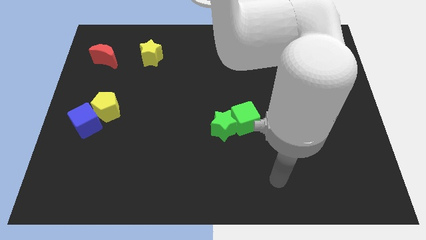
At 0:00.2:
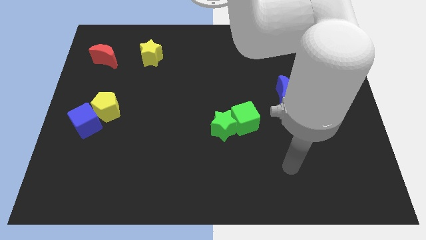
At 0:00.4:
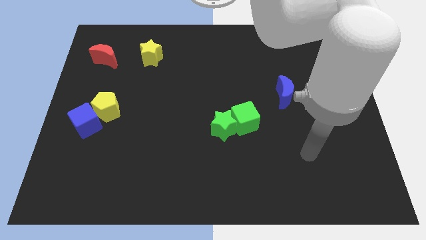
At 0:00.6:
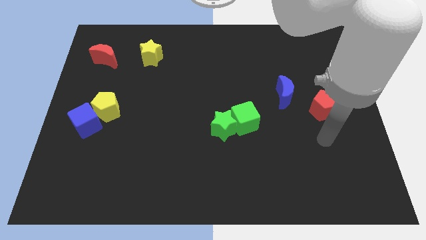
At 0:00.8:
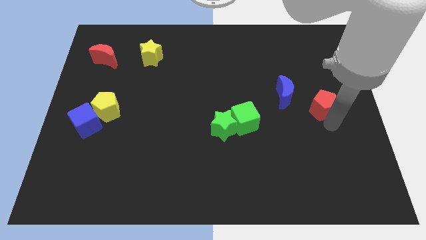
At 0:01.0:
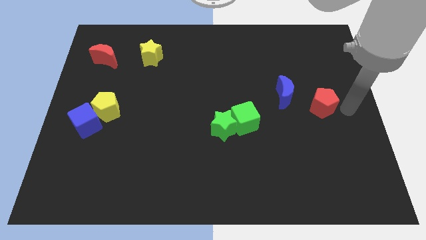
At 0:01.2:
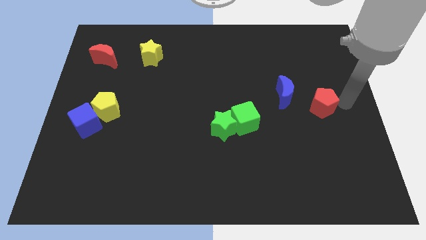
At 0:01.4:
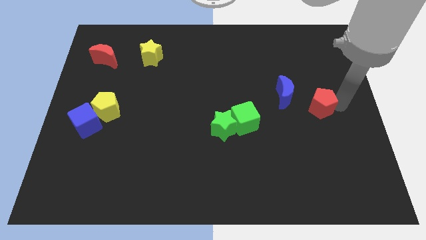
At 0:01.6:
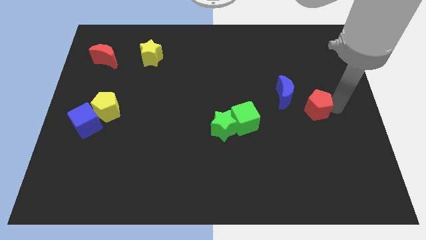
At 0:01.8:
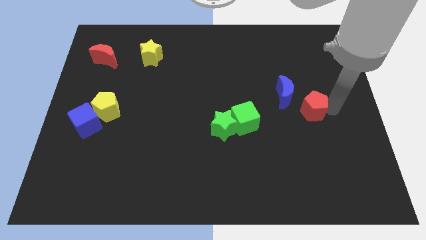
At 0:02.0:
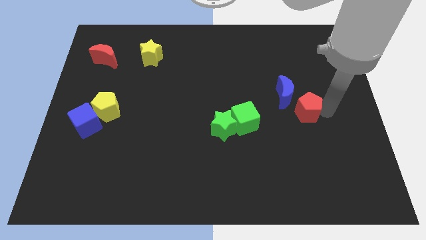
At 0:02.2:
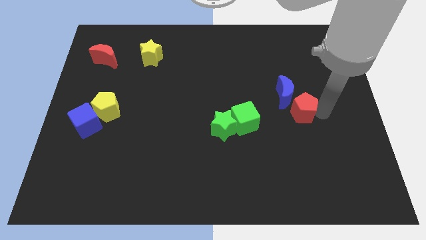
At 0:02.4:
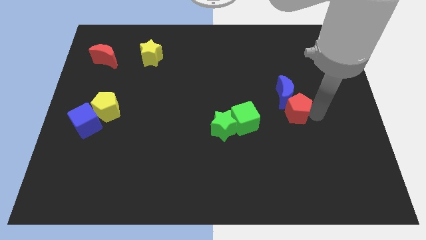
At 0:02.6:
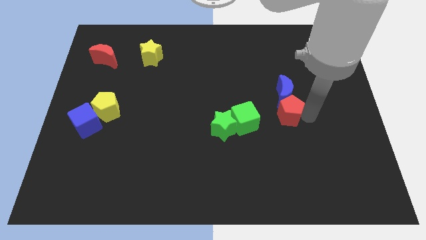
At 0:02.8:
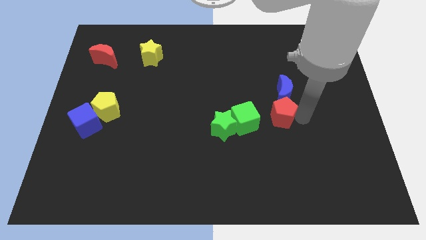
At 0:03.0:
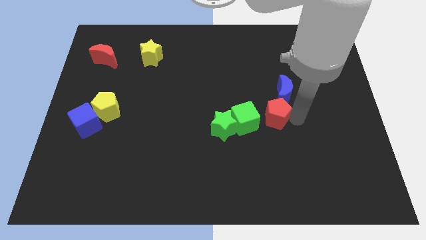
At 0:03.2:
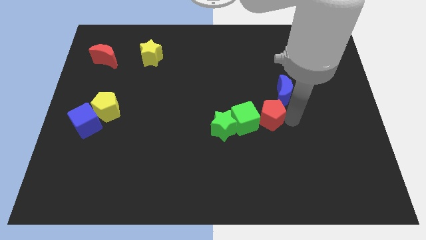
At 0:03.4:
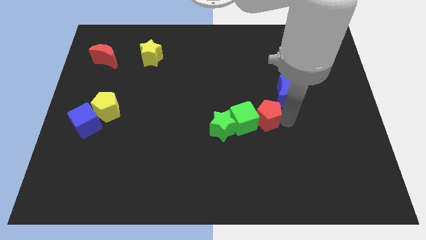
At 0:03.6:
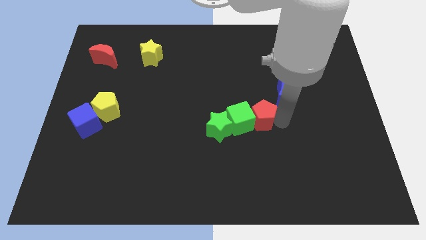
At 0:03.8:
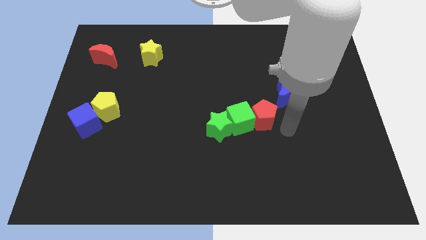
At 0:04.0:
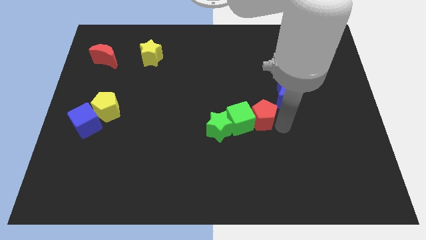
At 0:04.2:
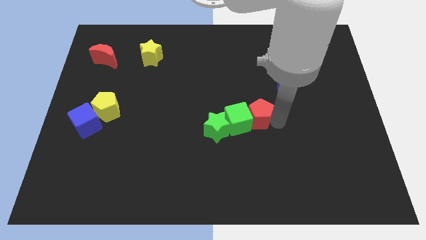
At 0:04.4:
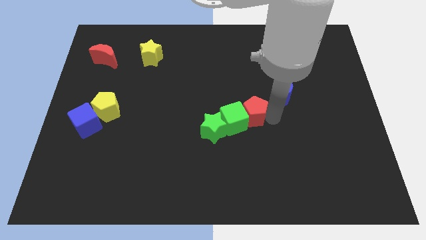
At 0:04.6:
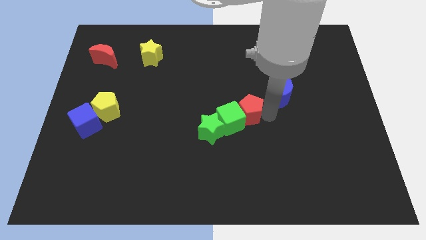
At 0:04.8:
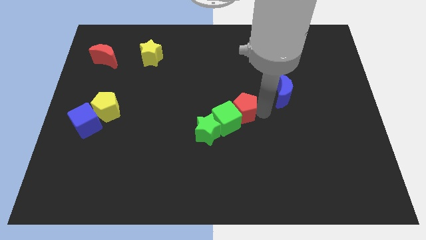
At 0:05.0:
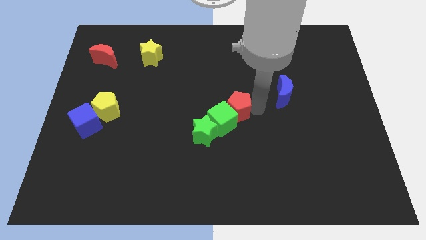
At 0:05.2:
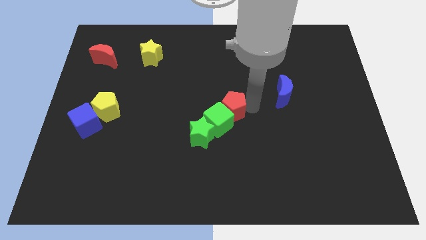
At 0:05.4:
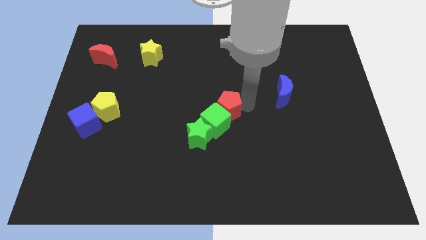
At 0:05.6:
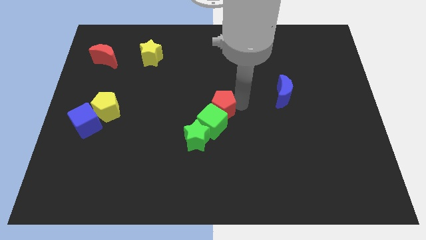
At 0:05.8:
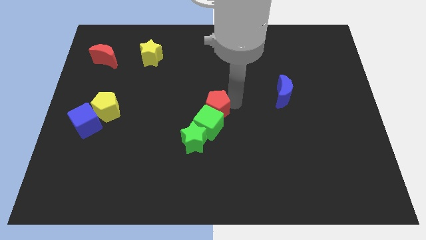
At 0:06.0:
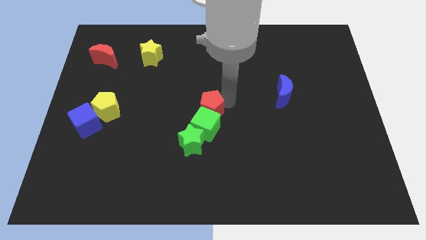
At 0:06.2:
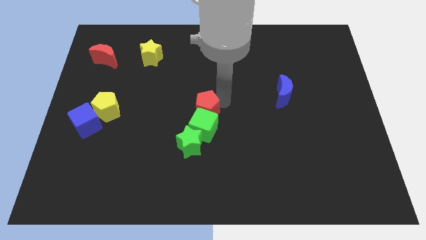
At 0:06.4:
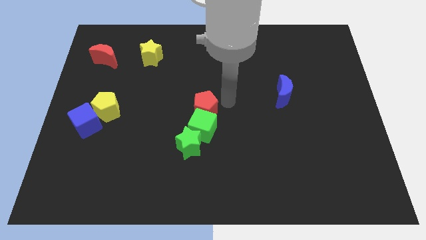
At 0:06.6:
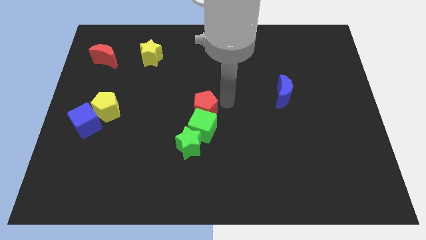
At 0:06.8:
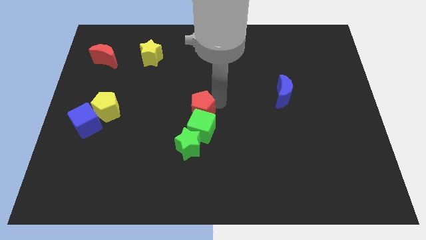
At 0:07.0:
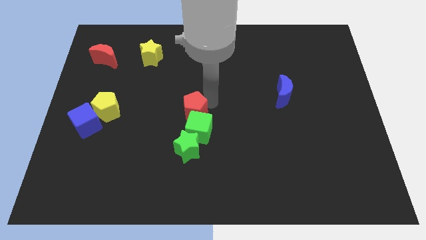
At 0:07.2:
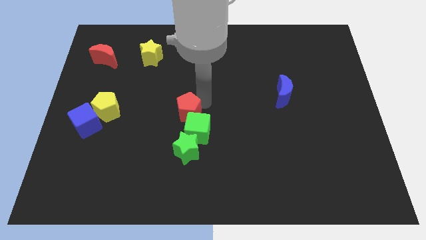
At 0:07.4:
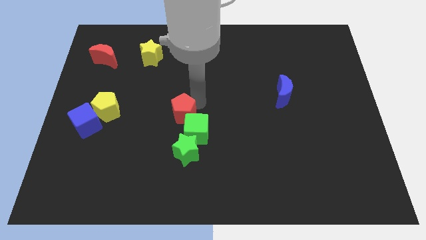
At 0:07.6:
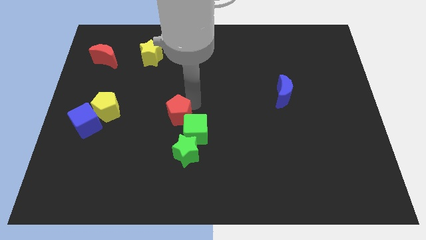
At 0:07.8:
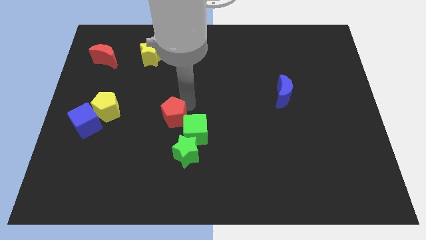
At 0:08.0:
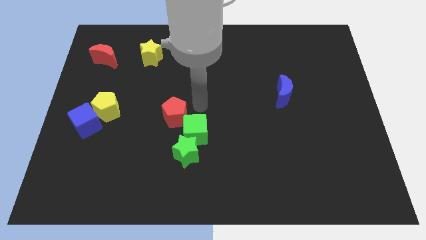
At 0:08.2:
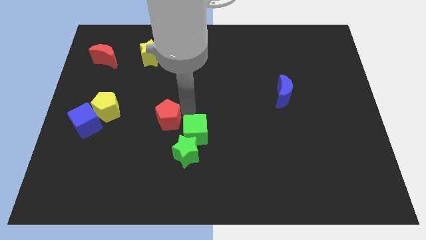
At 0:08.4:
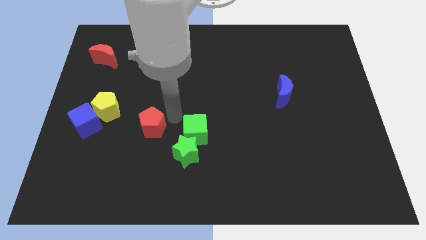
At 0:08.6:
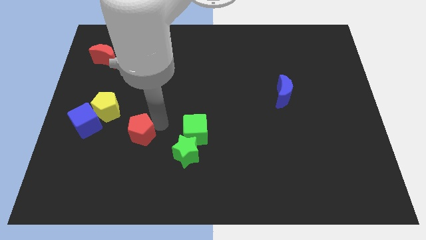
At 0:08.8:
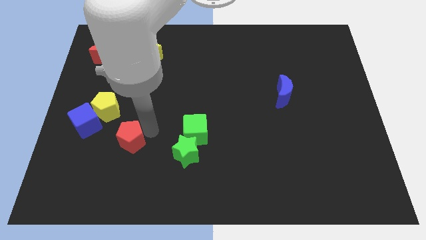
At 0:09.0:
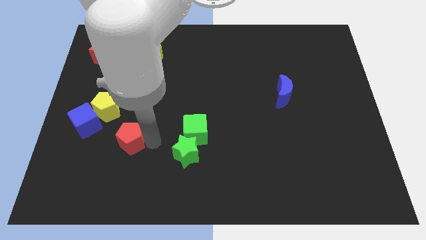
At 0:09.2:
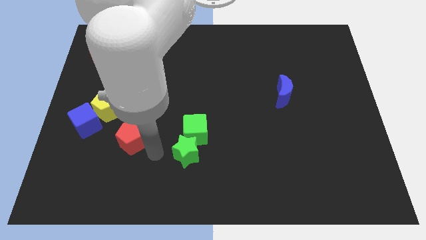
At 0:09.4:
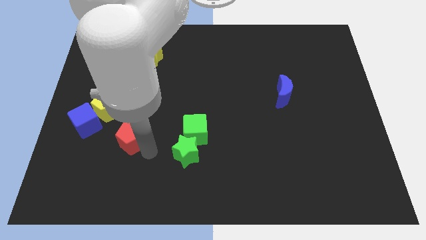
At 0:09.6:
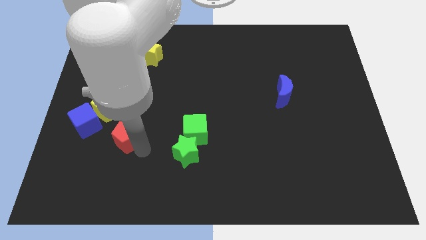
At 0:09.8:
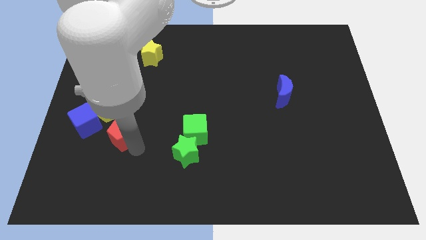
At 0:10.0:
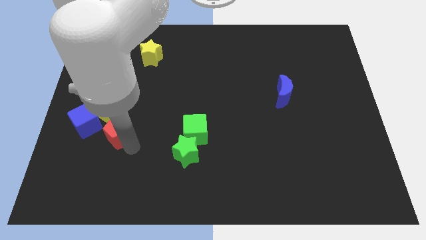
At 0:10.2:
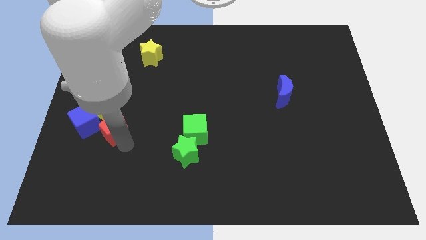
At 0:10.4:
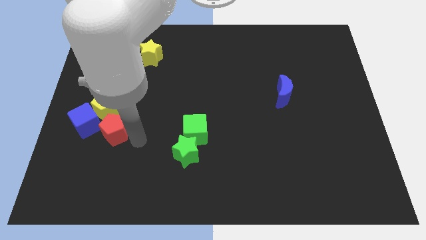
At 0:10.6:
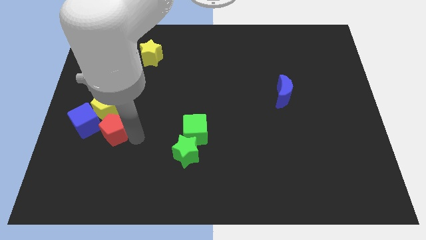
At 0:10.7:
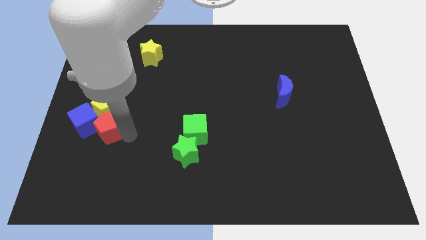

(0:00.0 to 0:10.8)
push the red pentagon next to the blue cube

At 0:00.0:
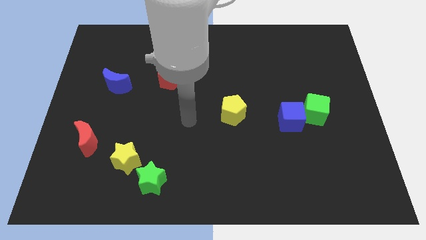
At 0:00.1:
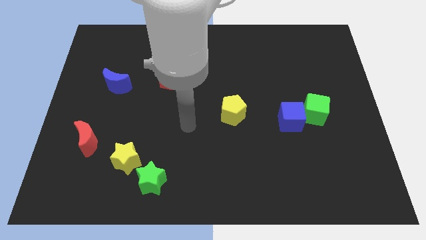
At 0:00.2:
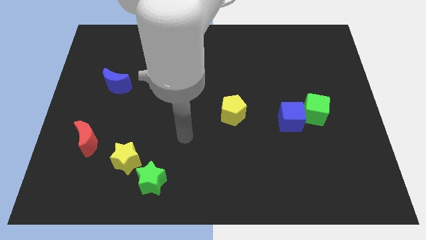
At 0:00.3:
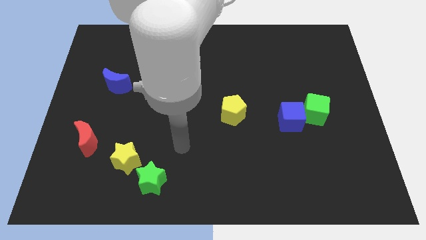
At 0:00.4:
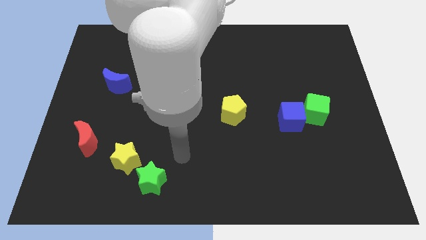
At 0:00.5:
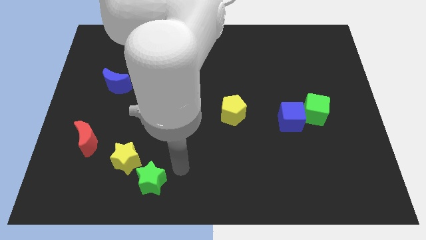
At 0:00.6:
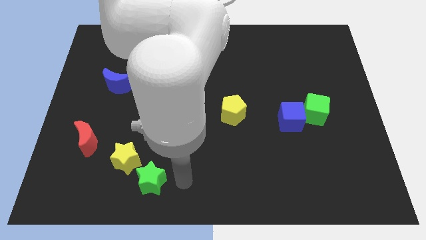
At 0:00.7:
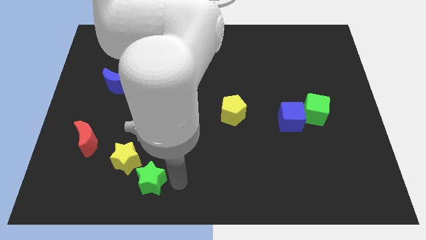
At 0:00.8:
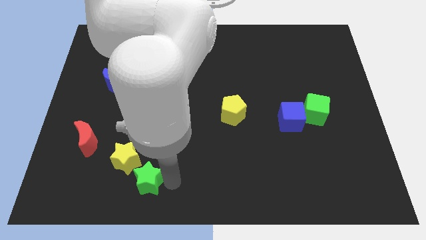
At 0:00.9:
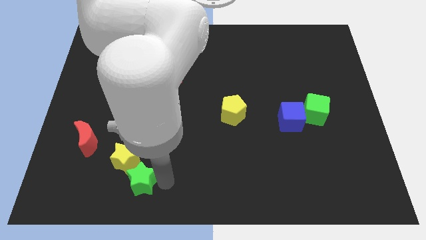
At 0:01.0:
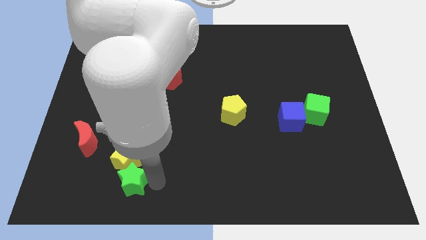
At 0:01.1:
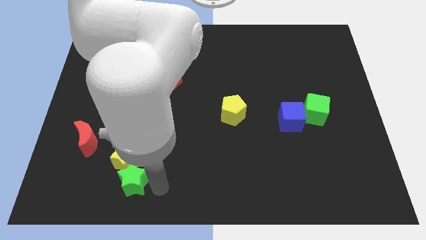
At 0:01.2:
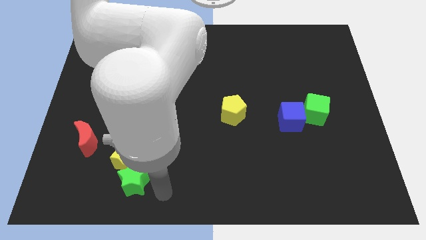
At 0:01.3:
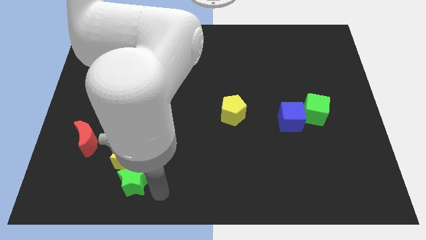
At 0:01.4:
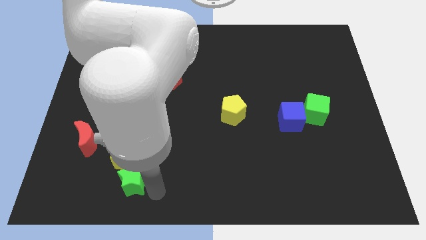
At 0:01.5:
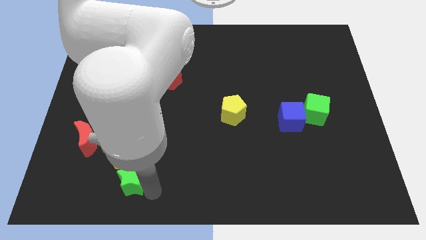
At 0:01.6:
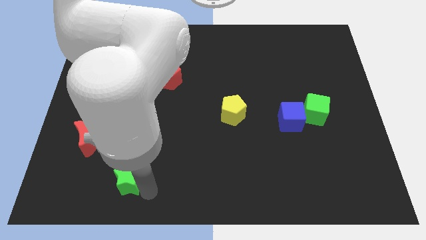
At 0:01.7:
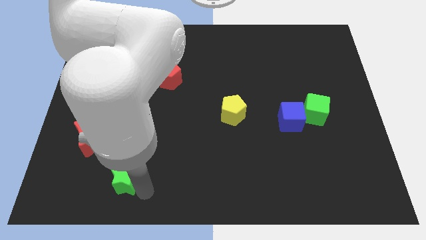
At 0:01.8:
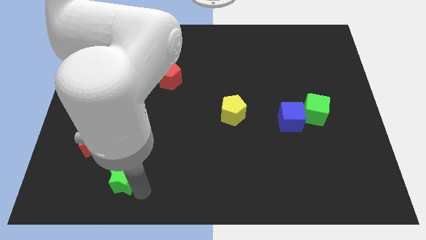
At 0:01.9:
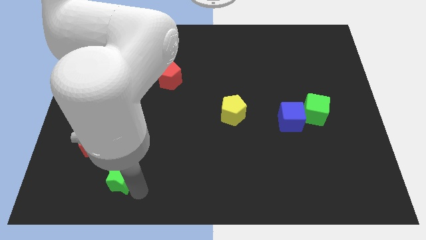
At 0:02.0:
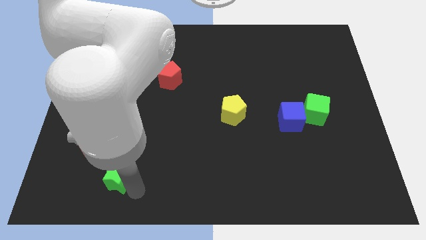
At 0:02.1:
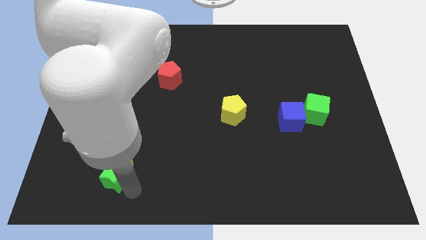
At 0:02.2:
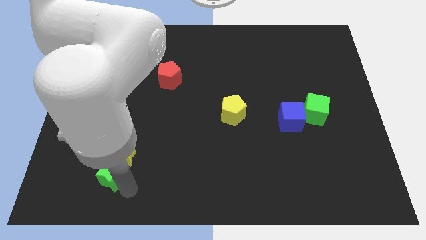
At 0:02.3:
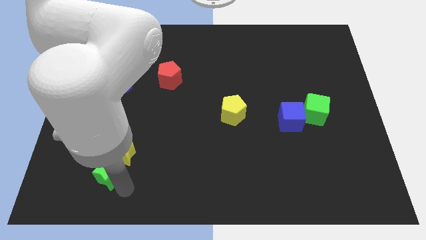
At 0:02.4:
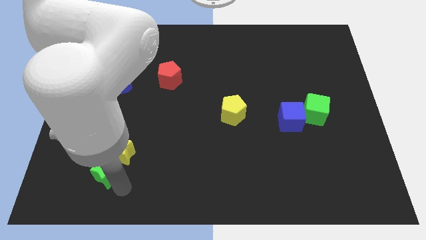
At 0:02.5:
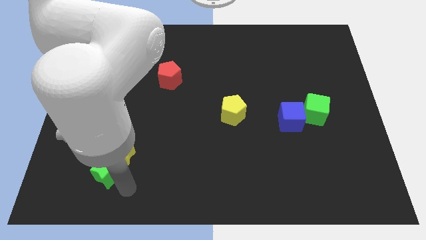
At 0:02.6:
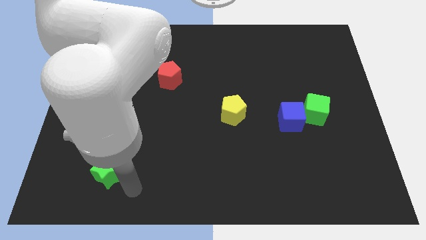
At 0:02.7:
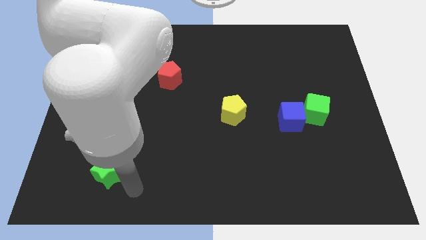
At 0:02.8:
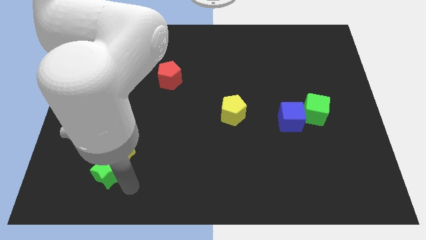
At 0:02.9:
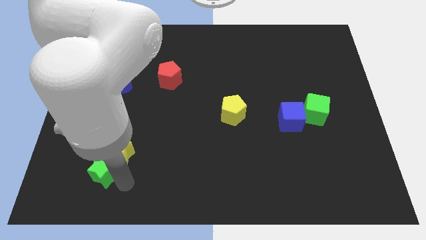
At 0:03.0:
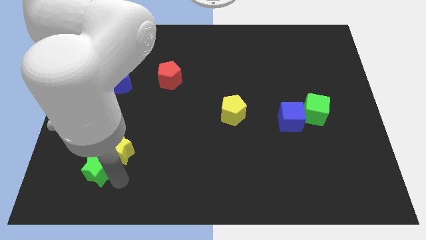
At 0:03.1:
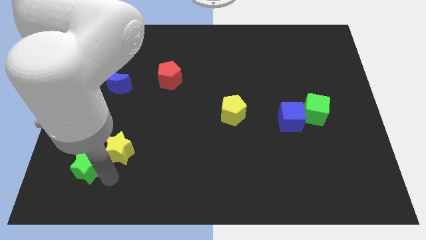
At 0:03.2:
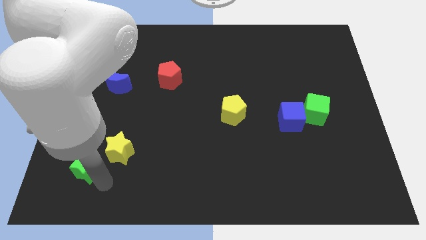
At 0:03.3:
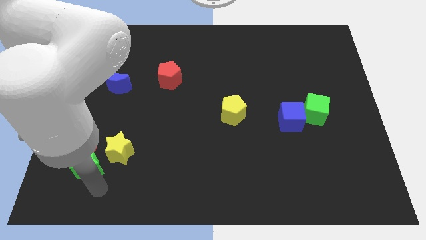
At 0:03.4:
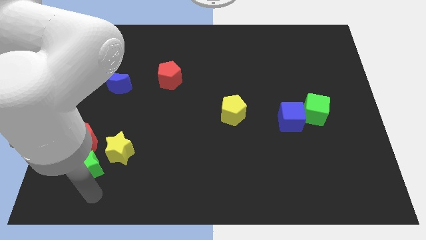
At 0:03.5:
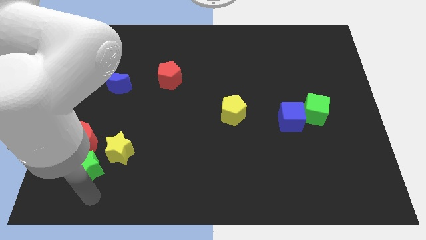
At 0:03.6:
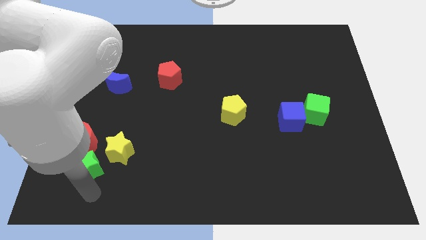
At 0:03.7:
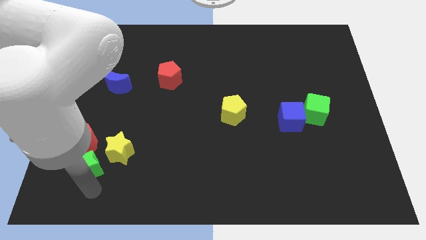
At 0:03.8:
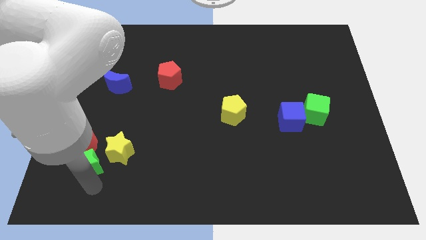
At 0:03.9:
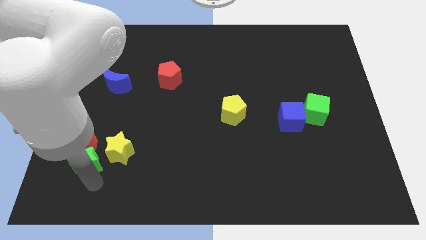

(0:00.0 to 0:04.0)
move the green star next to the red moon
